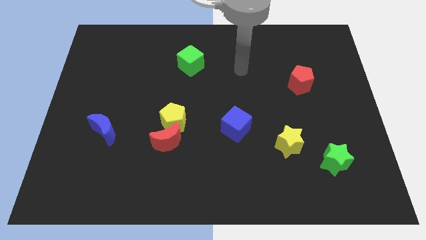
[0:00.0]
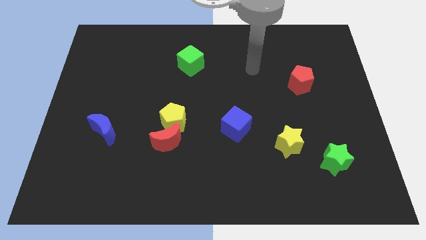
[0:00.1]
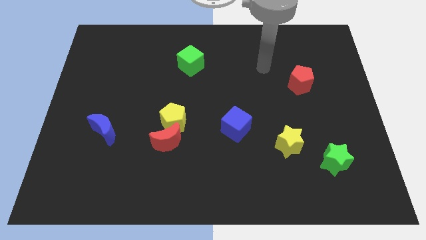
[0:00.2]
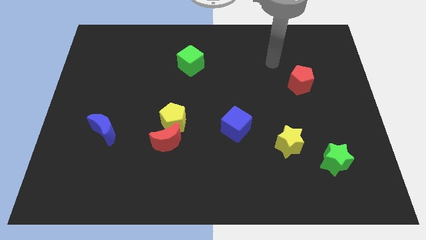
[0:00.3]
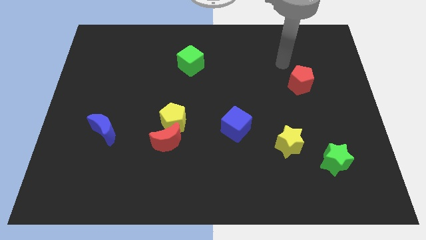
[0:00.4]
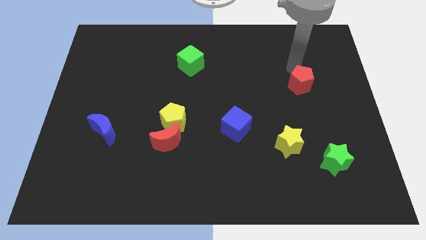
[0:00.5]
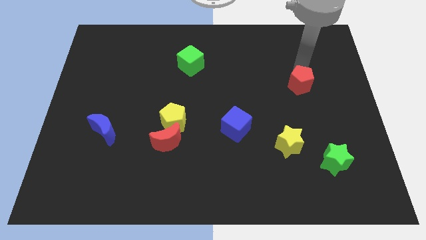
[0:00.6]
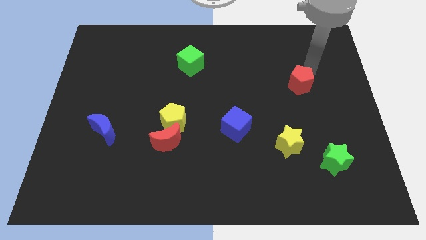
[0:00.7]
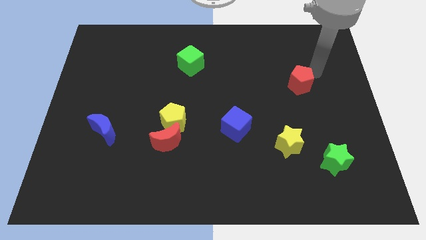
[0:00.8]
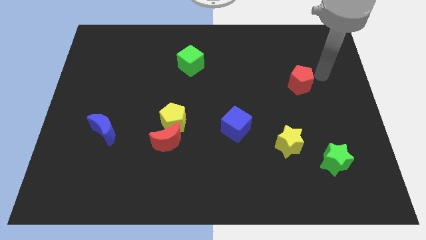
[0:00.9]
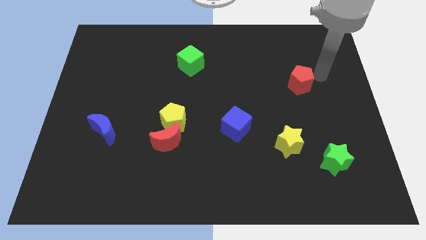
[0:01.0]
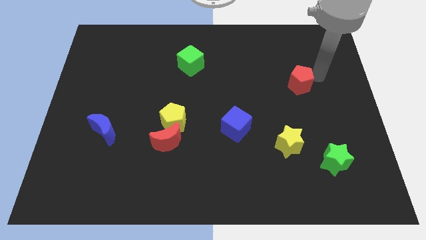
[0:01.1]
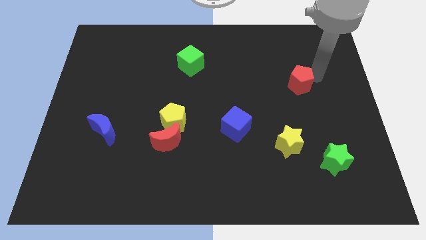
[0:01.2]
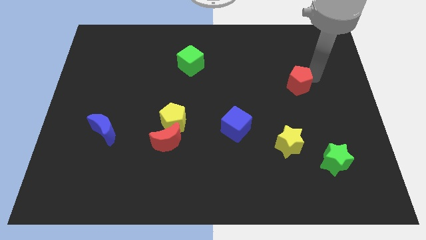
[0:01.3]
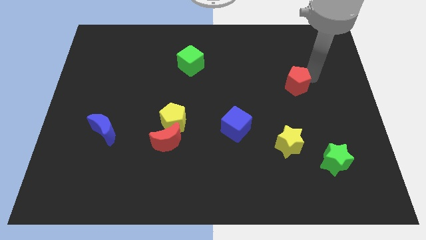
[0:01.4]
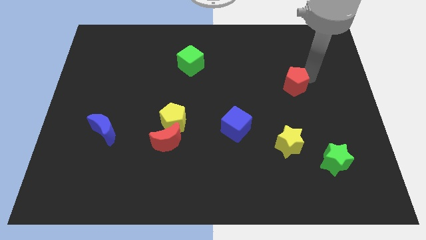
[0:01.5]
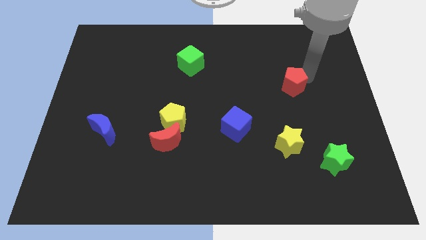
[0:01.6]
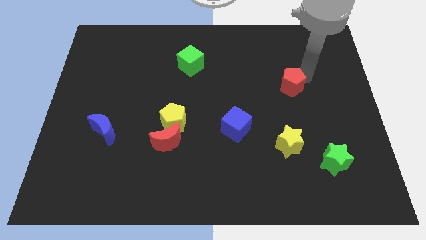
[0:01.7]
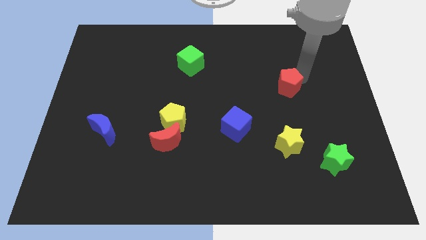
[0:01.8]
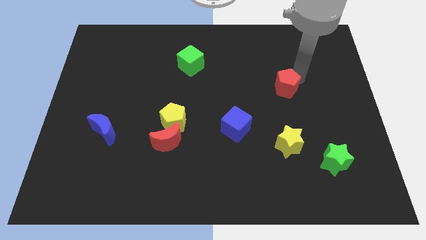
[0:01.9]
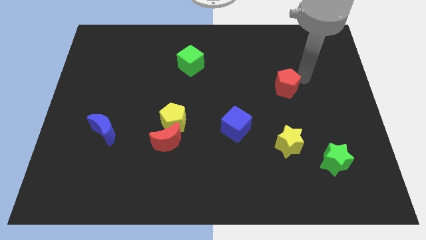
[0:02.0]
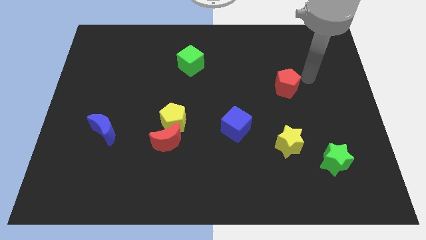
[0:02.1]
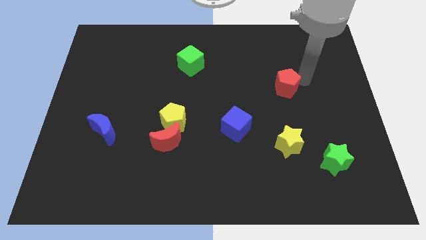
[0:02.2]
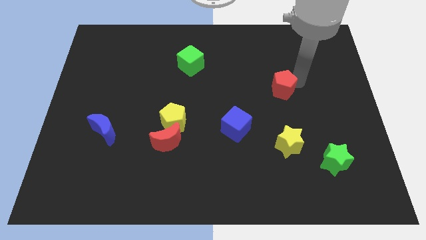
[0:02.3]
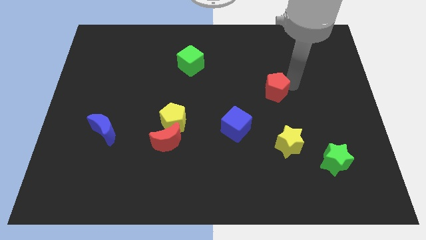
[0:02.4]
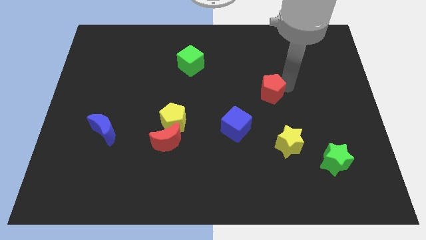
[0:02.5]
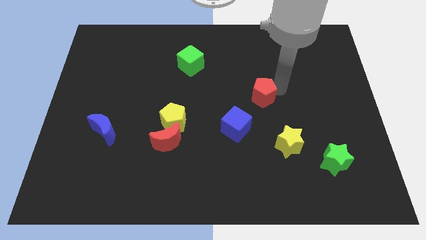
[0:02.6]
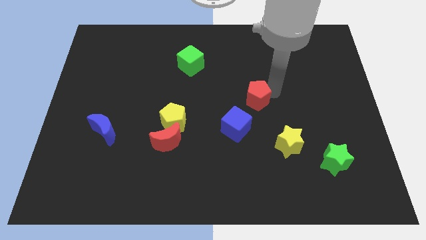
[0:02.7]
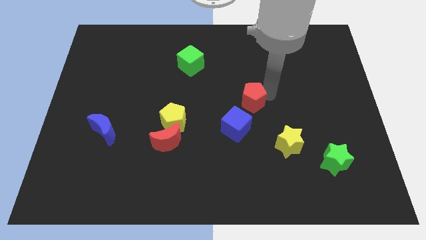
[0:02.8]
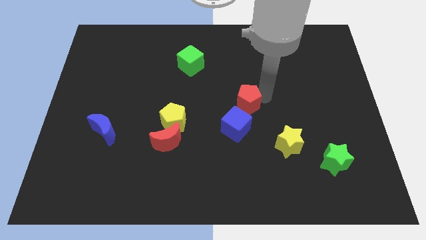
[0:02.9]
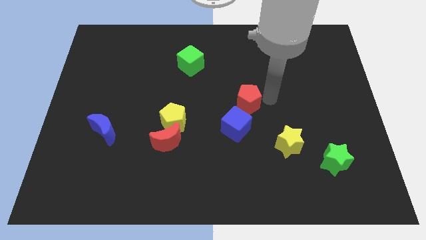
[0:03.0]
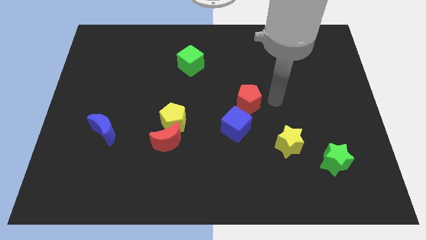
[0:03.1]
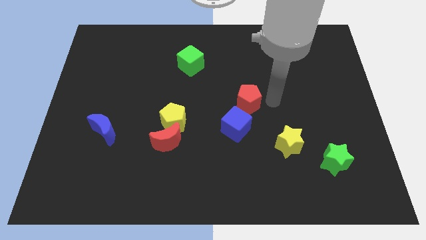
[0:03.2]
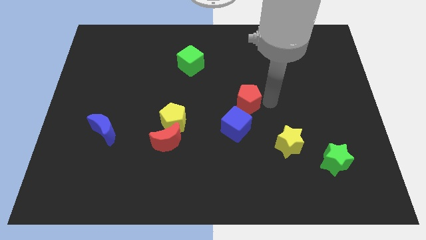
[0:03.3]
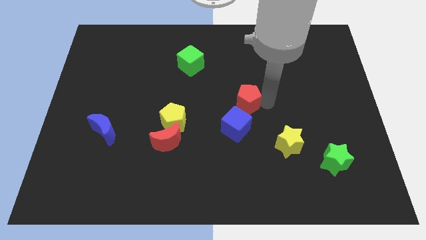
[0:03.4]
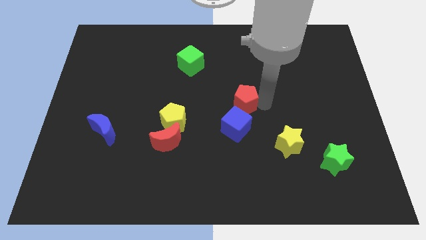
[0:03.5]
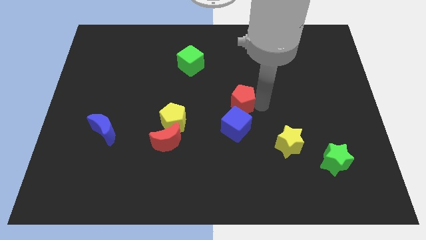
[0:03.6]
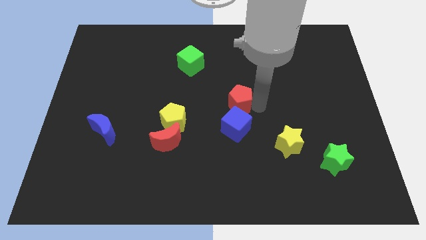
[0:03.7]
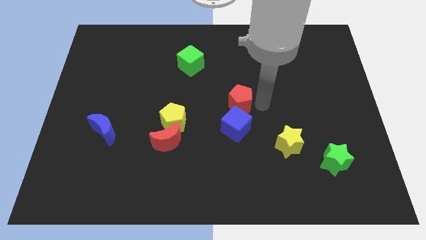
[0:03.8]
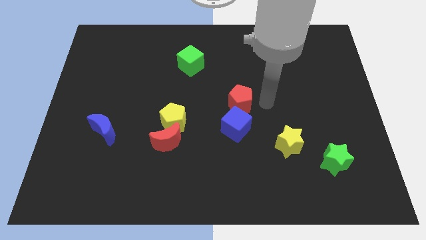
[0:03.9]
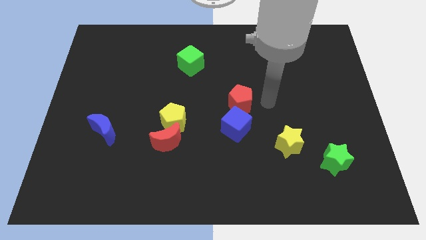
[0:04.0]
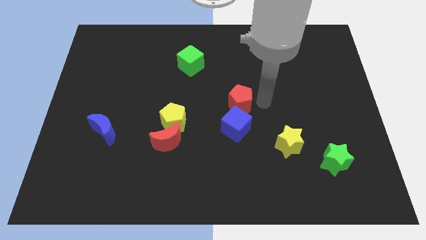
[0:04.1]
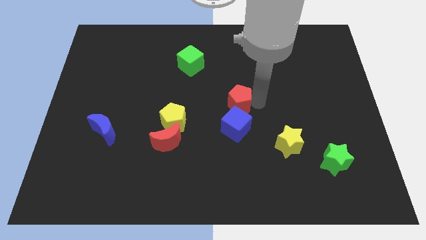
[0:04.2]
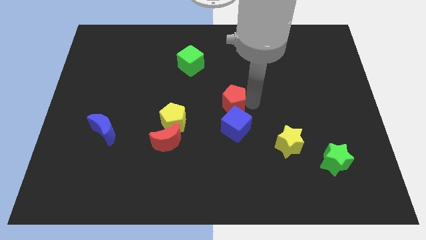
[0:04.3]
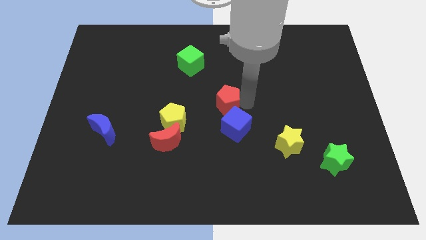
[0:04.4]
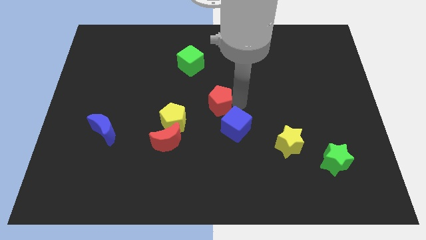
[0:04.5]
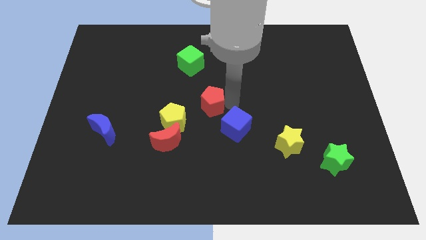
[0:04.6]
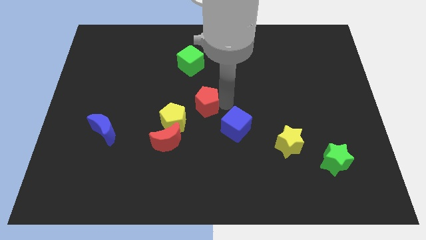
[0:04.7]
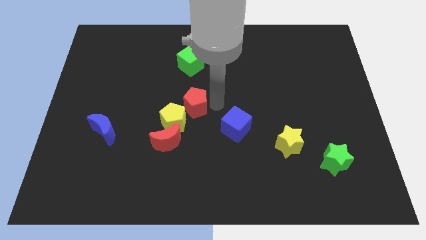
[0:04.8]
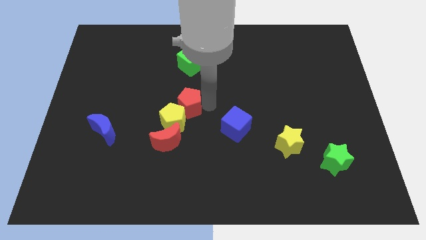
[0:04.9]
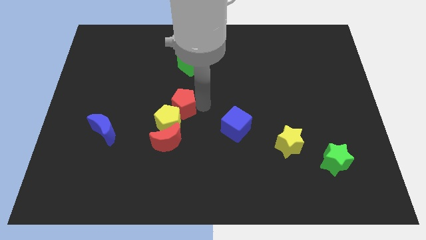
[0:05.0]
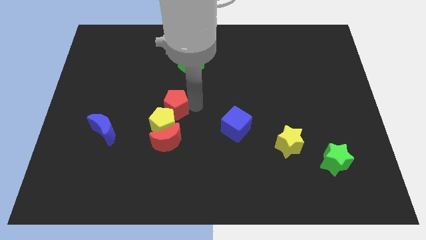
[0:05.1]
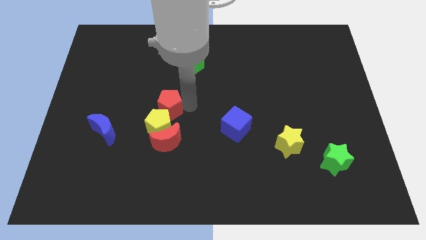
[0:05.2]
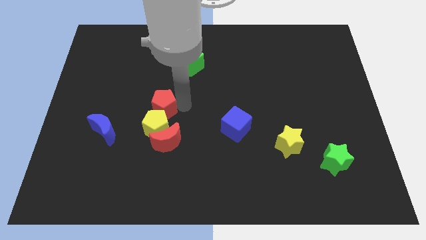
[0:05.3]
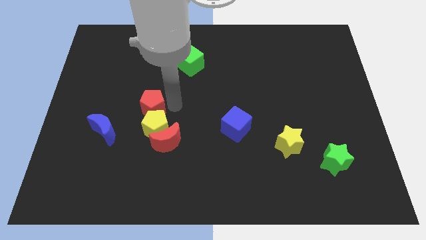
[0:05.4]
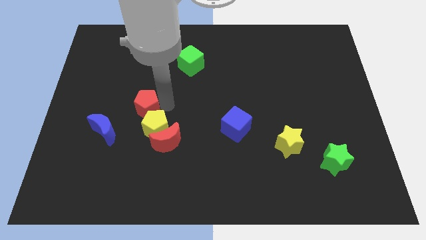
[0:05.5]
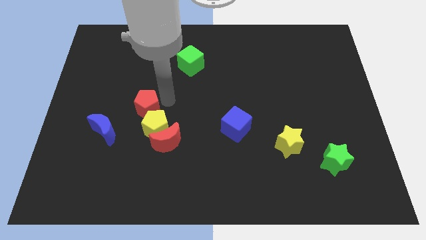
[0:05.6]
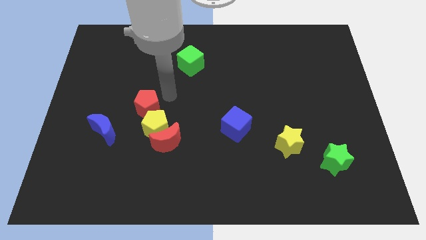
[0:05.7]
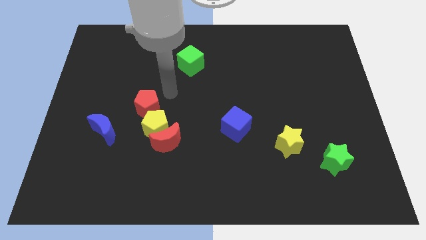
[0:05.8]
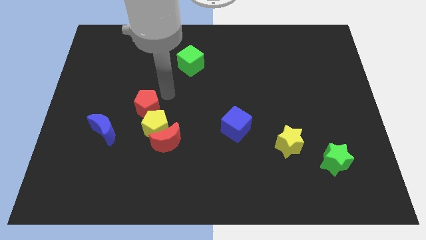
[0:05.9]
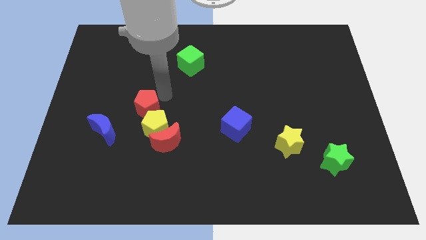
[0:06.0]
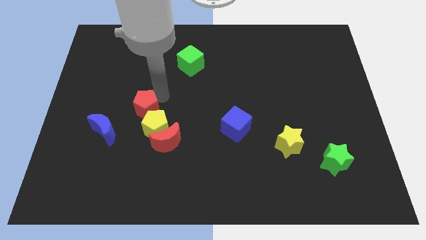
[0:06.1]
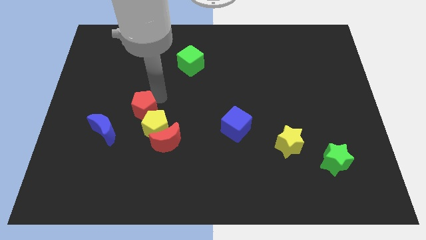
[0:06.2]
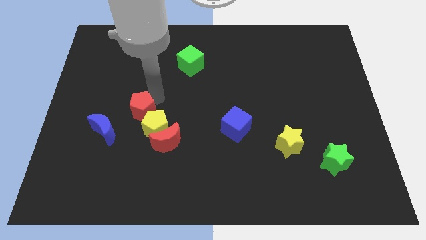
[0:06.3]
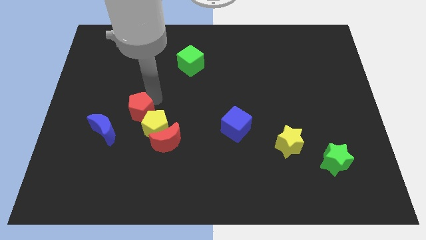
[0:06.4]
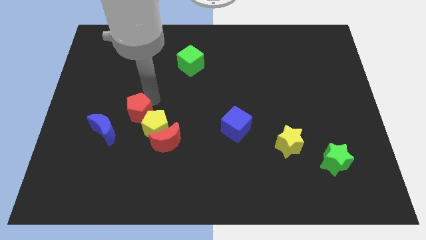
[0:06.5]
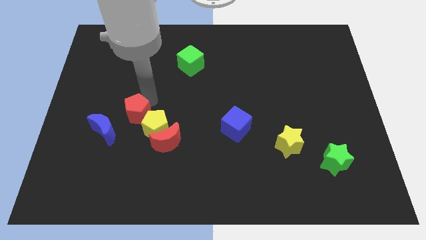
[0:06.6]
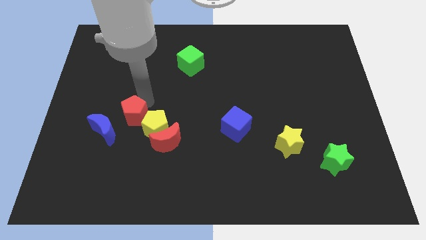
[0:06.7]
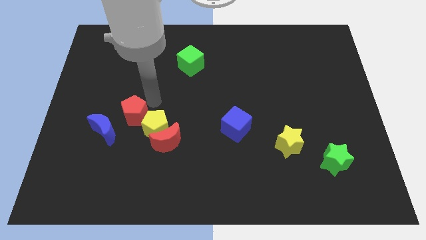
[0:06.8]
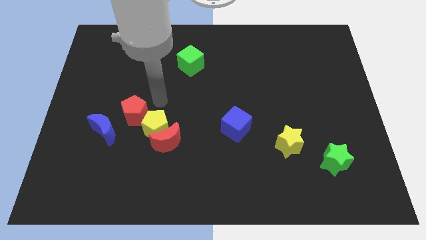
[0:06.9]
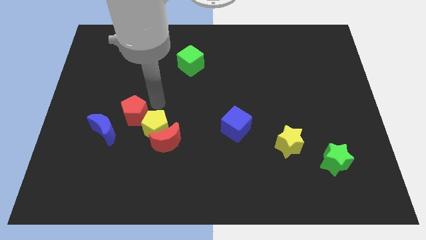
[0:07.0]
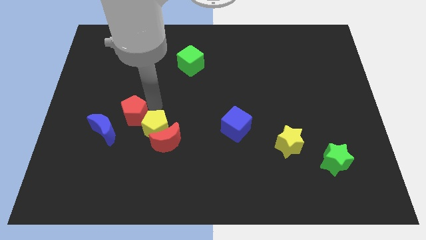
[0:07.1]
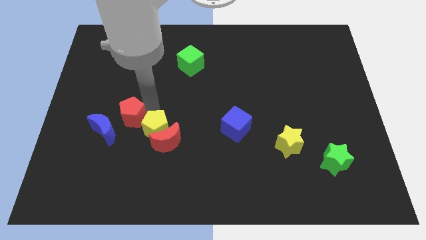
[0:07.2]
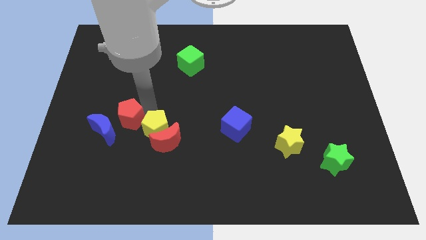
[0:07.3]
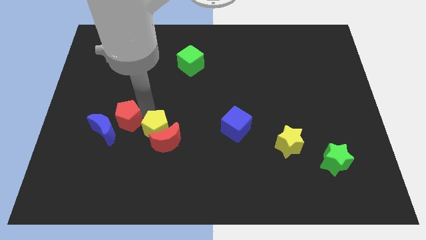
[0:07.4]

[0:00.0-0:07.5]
move the red pentagon towards the blue moon
